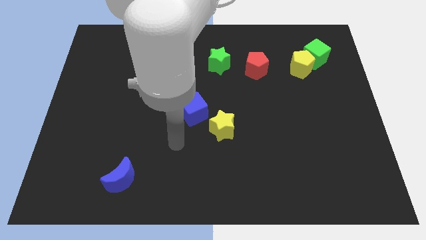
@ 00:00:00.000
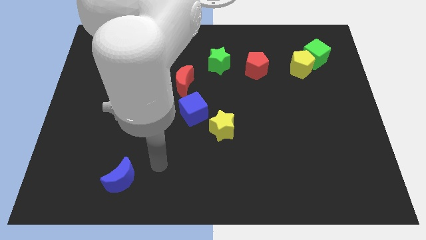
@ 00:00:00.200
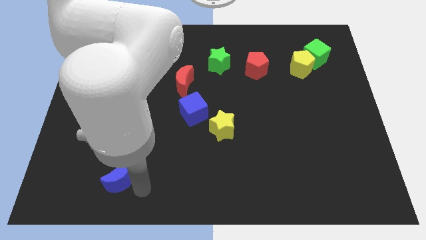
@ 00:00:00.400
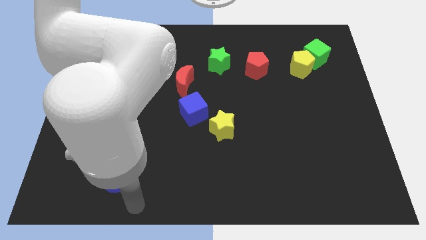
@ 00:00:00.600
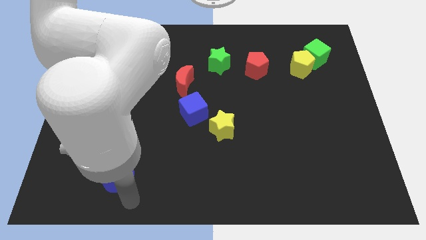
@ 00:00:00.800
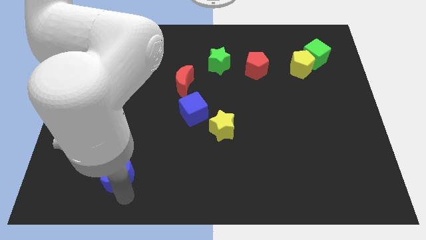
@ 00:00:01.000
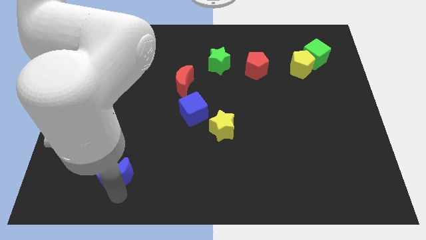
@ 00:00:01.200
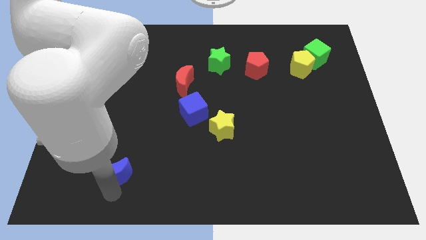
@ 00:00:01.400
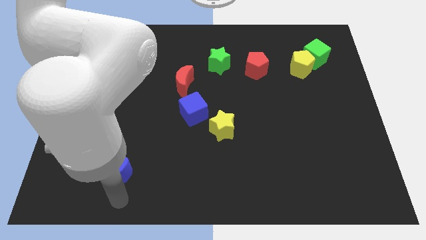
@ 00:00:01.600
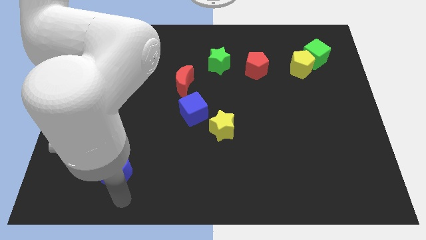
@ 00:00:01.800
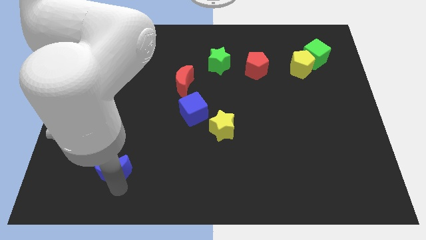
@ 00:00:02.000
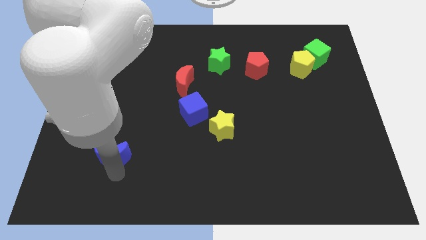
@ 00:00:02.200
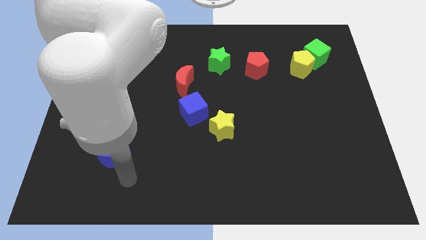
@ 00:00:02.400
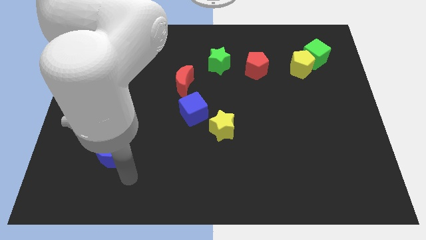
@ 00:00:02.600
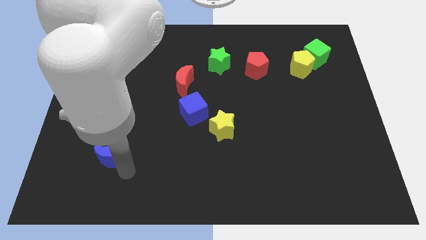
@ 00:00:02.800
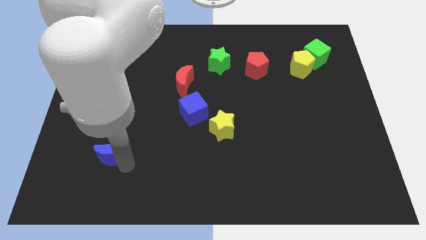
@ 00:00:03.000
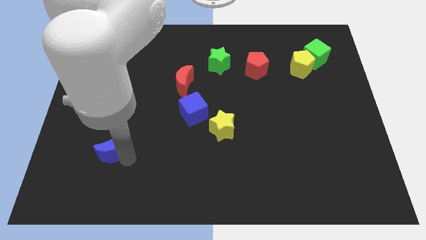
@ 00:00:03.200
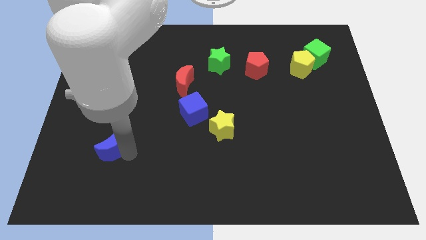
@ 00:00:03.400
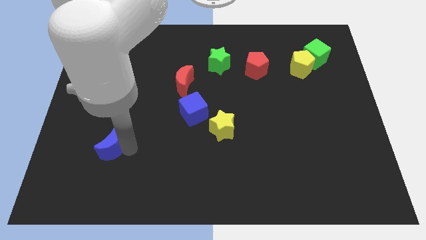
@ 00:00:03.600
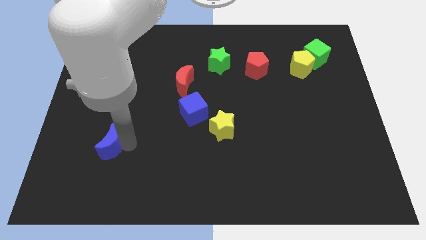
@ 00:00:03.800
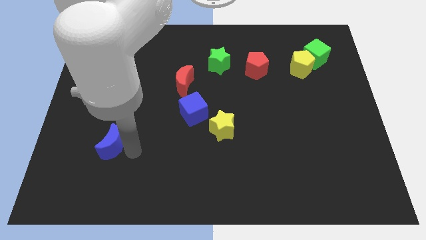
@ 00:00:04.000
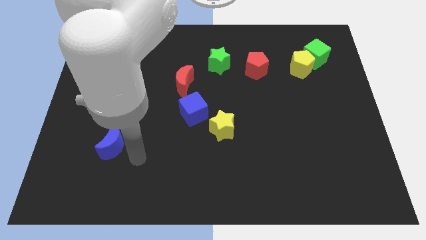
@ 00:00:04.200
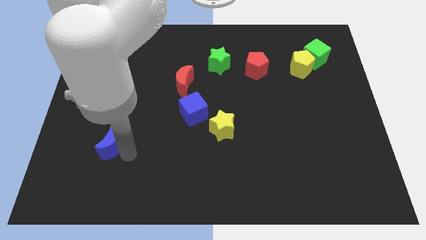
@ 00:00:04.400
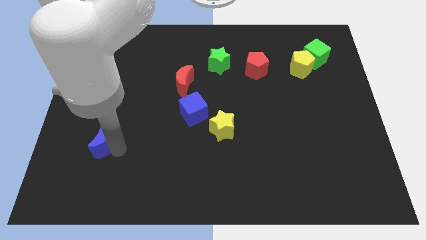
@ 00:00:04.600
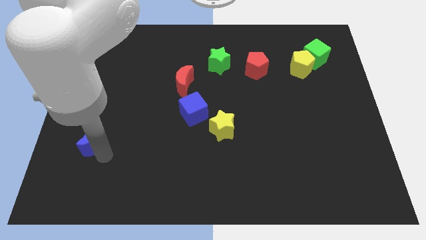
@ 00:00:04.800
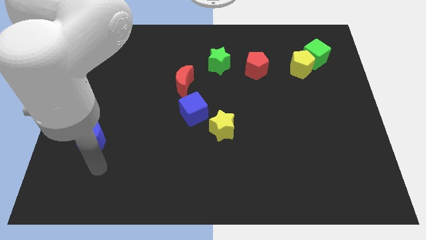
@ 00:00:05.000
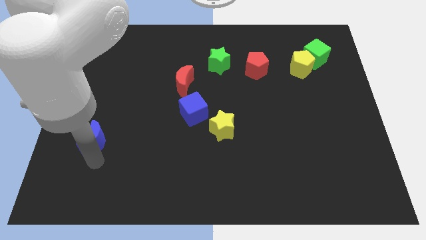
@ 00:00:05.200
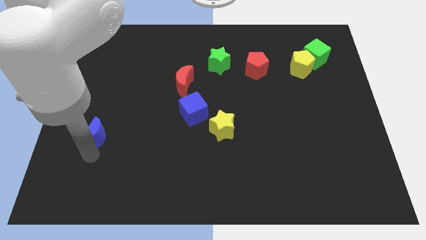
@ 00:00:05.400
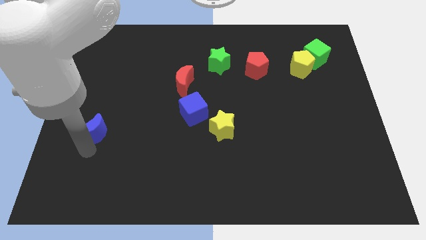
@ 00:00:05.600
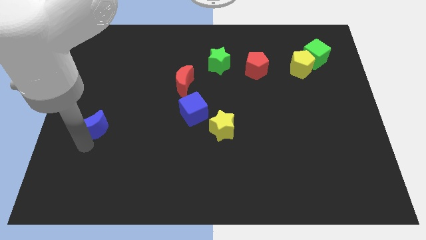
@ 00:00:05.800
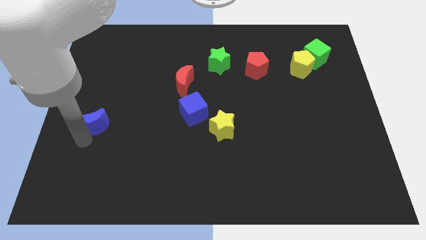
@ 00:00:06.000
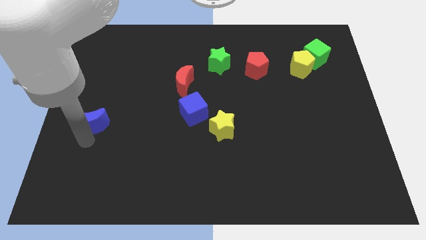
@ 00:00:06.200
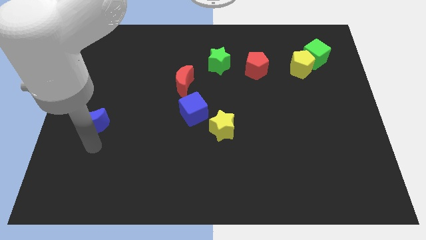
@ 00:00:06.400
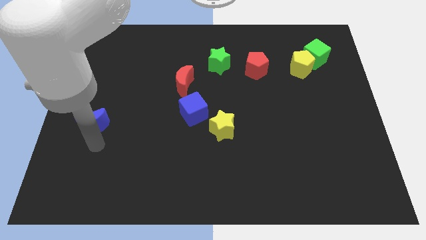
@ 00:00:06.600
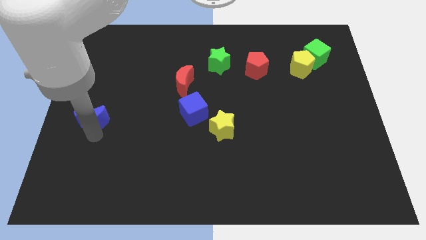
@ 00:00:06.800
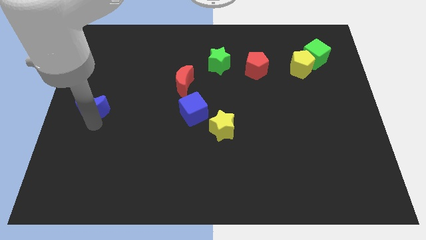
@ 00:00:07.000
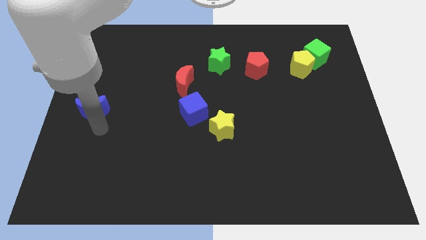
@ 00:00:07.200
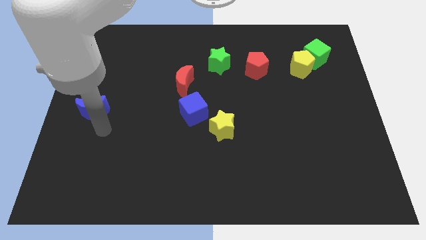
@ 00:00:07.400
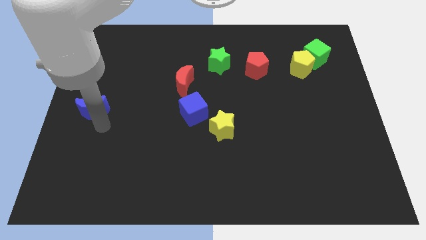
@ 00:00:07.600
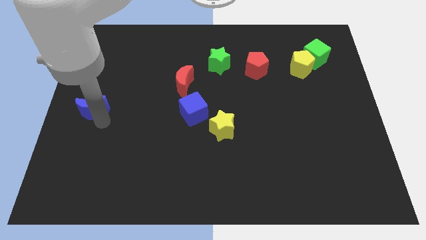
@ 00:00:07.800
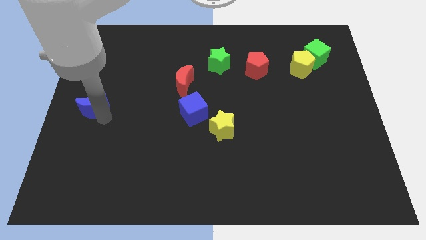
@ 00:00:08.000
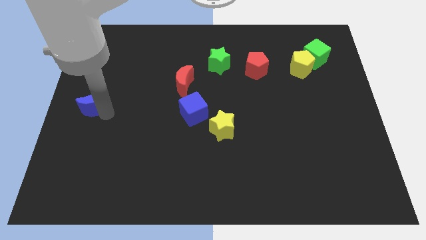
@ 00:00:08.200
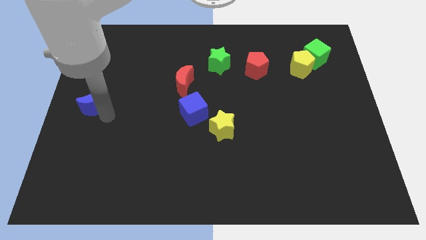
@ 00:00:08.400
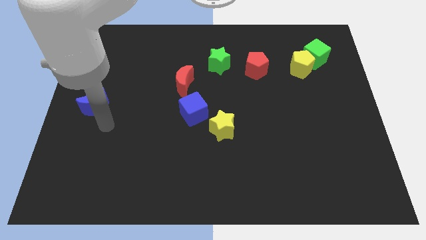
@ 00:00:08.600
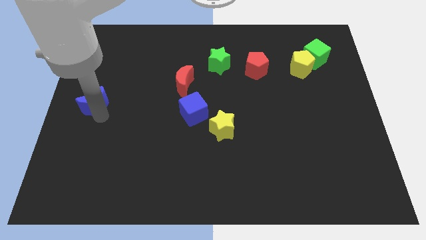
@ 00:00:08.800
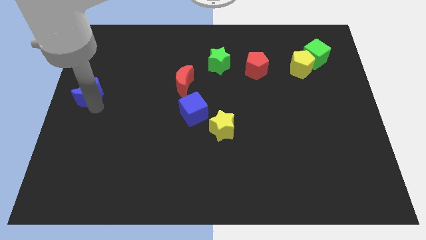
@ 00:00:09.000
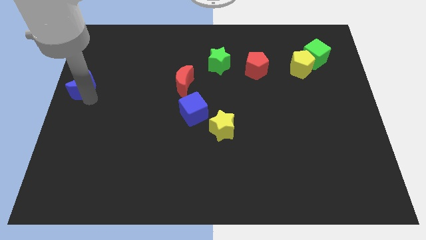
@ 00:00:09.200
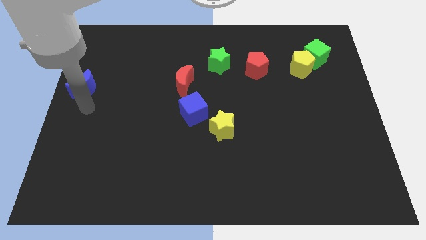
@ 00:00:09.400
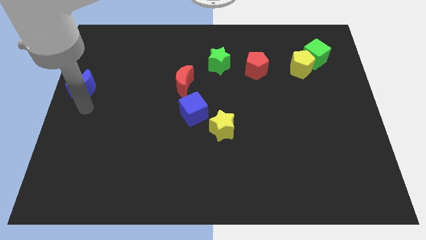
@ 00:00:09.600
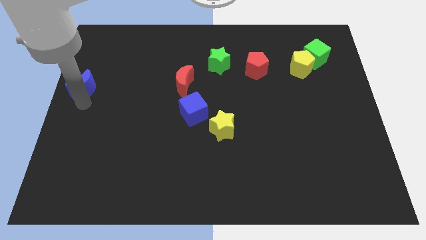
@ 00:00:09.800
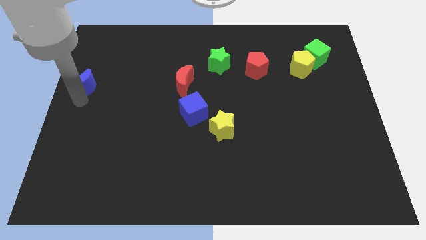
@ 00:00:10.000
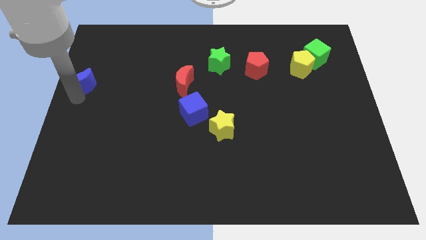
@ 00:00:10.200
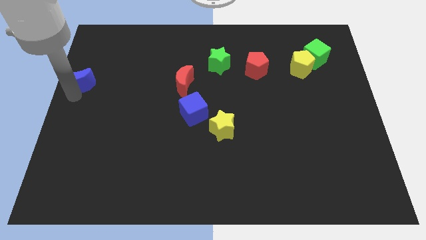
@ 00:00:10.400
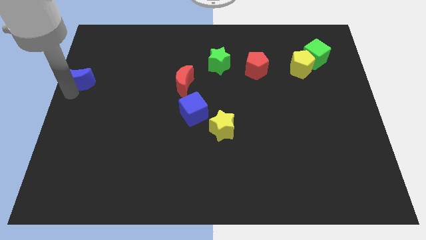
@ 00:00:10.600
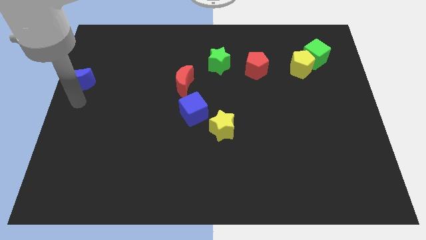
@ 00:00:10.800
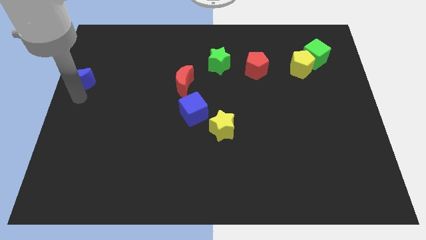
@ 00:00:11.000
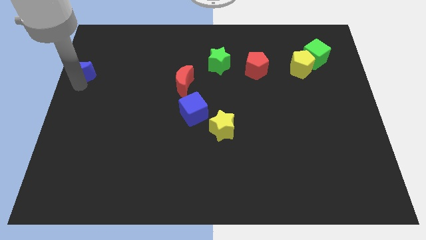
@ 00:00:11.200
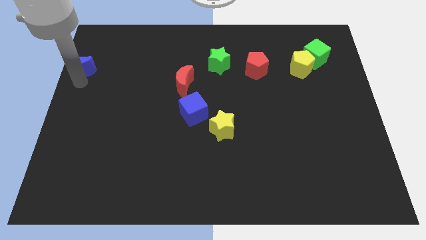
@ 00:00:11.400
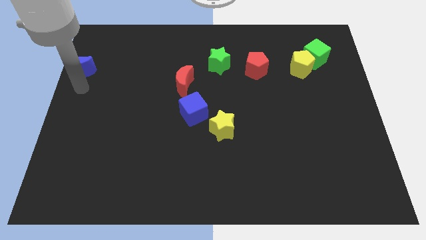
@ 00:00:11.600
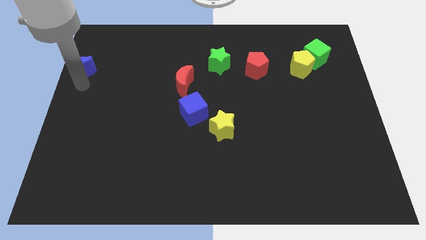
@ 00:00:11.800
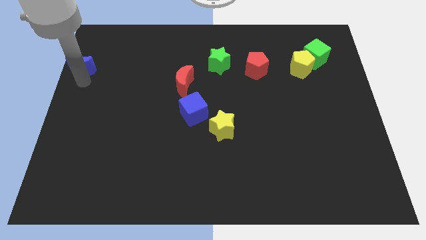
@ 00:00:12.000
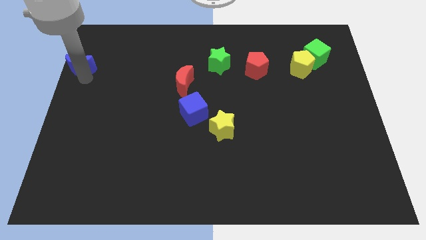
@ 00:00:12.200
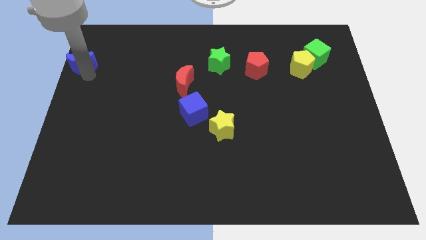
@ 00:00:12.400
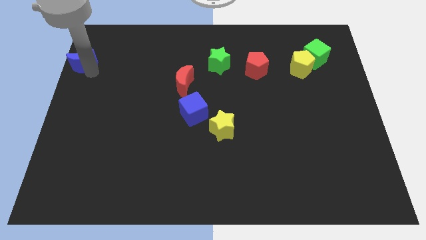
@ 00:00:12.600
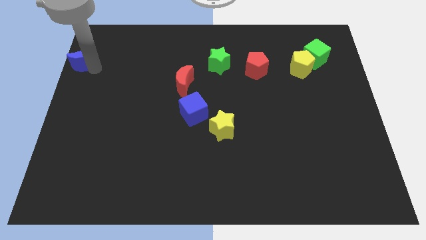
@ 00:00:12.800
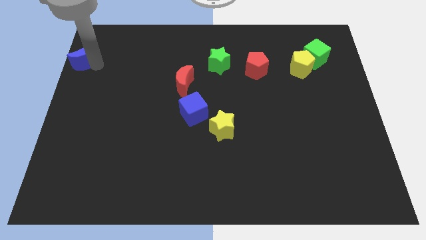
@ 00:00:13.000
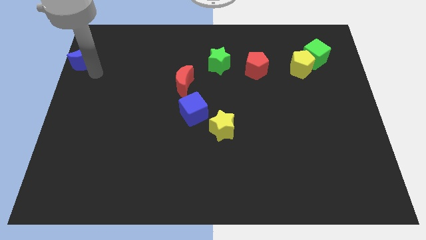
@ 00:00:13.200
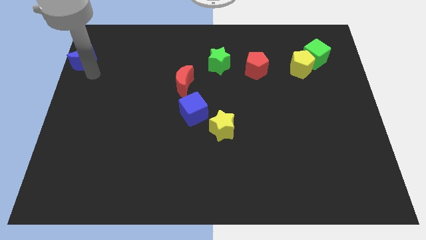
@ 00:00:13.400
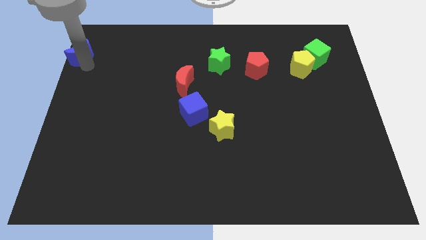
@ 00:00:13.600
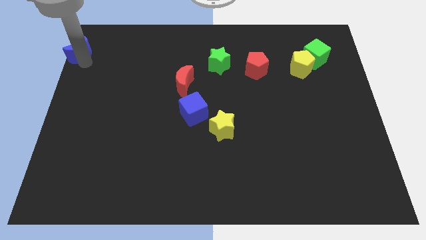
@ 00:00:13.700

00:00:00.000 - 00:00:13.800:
slide the blue moon to the top left of the board
